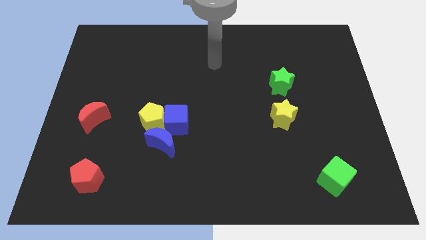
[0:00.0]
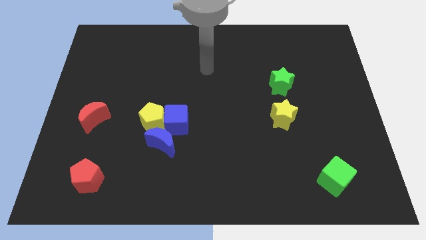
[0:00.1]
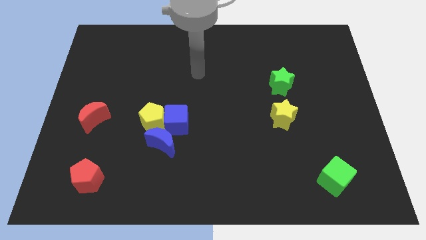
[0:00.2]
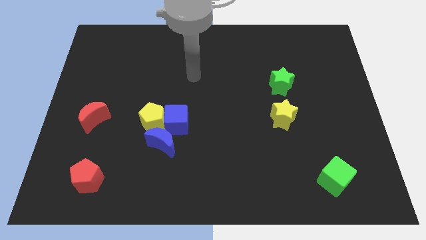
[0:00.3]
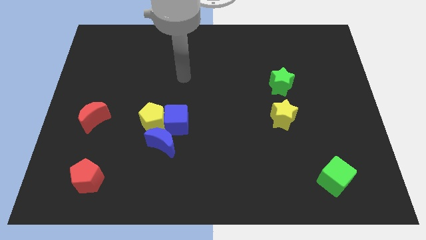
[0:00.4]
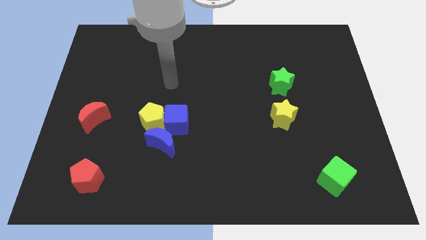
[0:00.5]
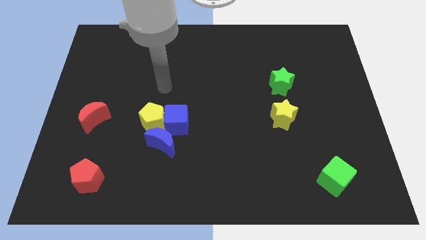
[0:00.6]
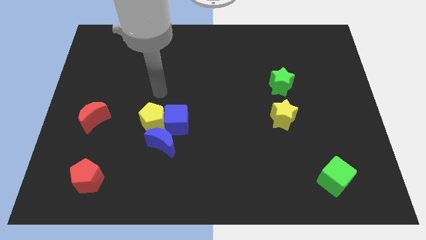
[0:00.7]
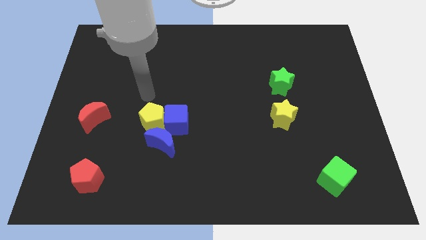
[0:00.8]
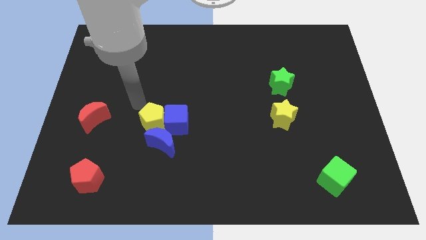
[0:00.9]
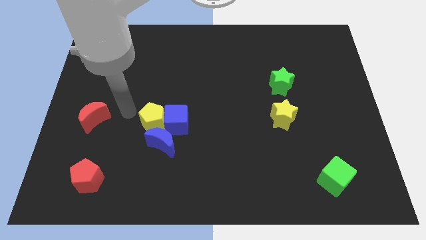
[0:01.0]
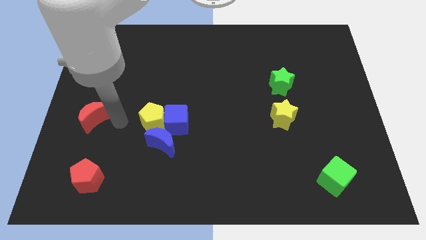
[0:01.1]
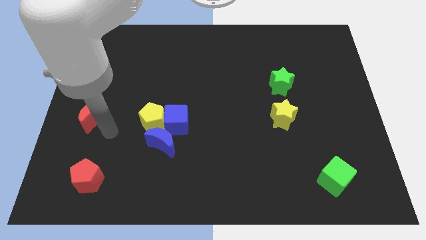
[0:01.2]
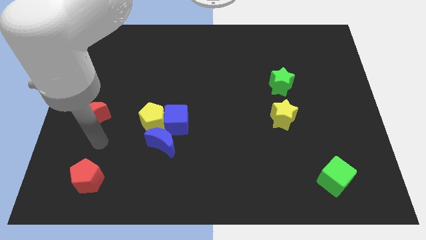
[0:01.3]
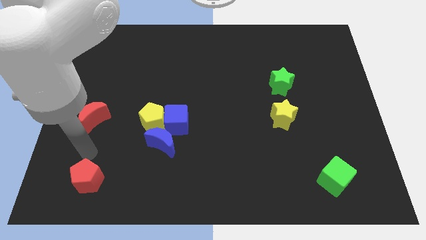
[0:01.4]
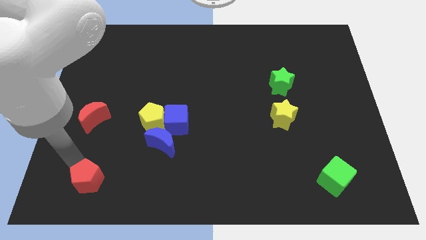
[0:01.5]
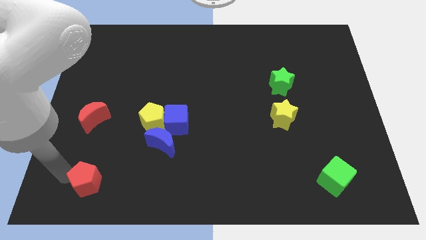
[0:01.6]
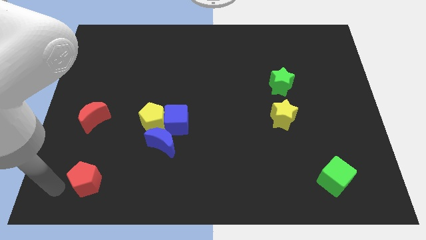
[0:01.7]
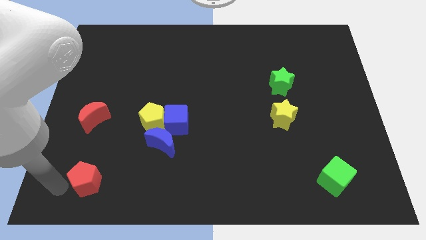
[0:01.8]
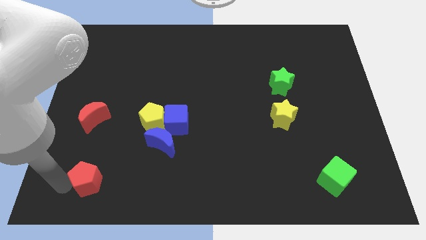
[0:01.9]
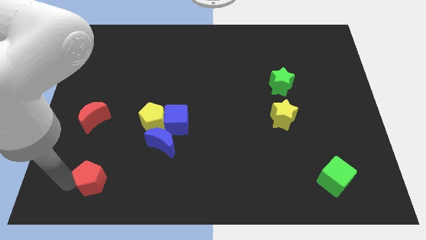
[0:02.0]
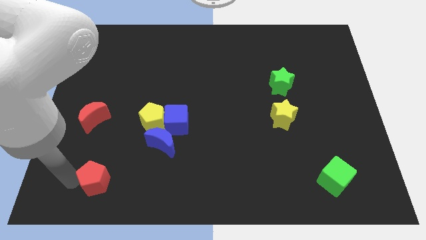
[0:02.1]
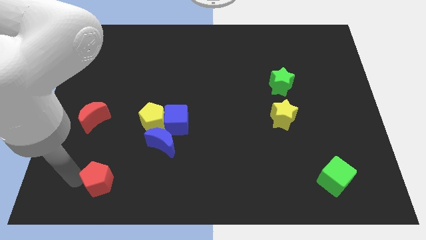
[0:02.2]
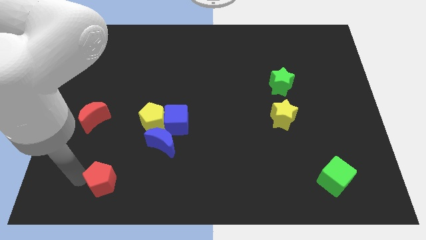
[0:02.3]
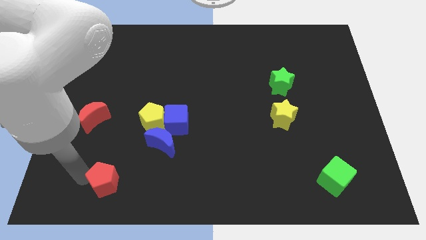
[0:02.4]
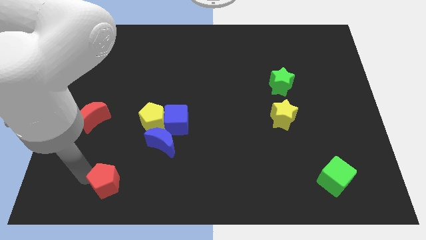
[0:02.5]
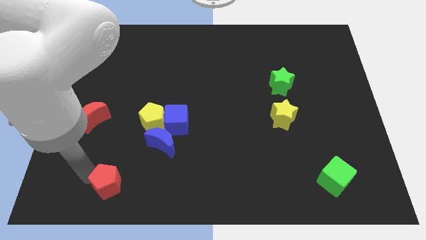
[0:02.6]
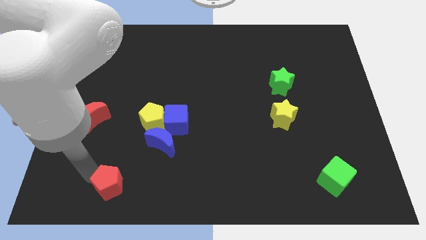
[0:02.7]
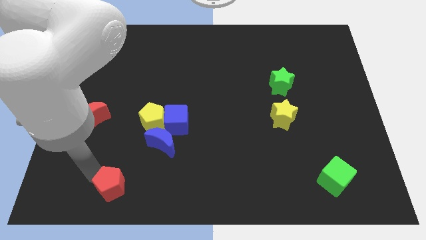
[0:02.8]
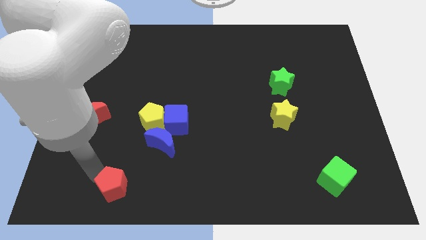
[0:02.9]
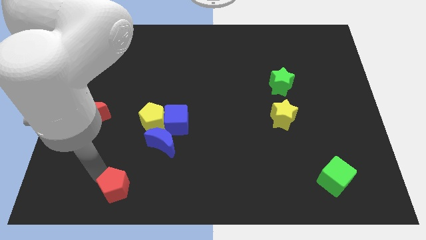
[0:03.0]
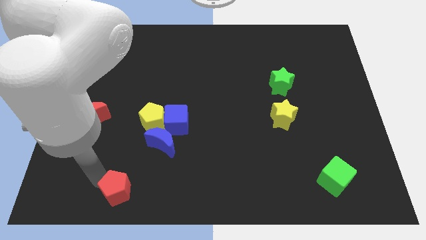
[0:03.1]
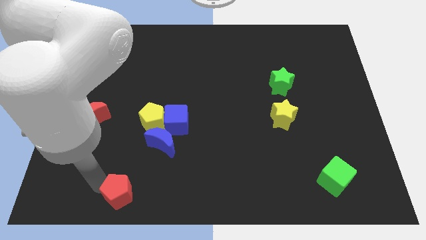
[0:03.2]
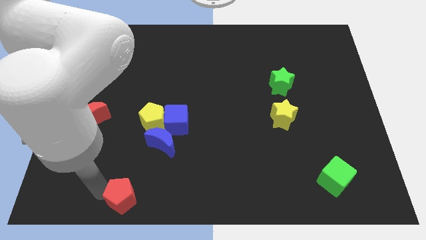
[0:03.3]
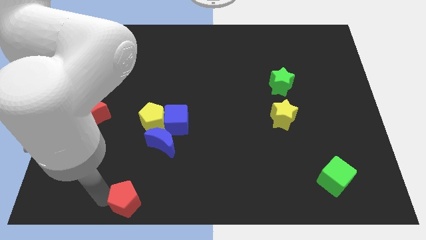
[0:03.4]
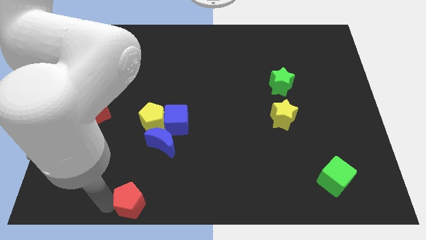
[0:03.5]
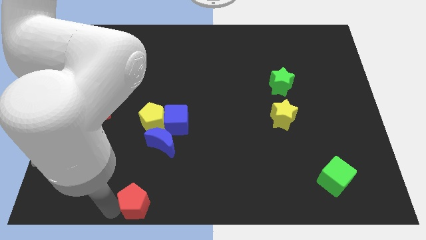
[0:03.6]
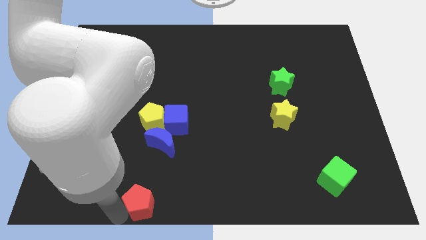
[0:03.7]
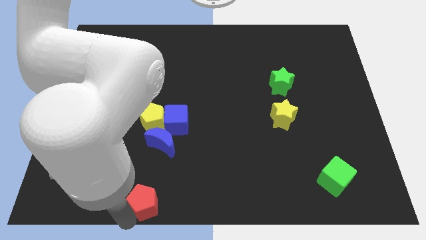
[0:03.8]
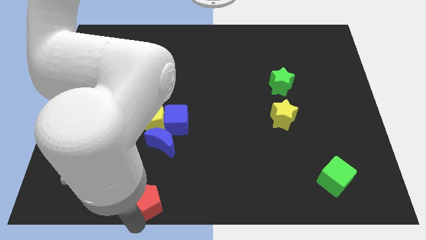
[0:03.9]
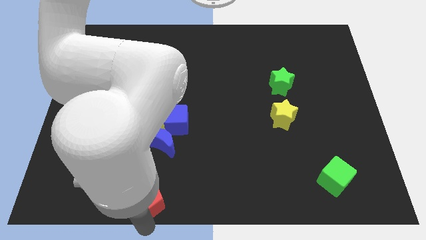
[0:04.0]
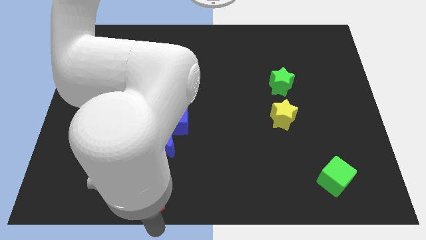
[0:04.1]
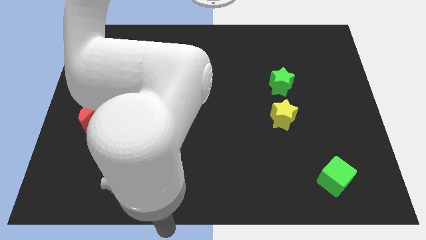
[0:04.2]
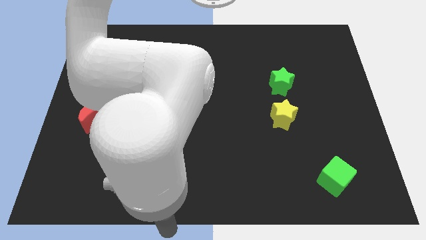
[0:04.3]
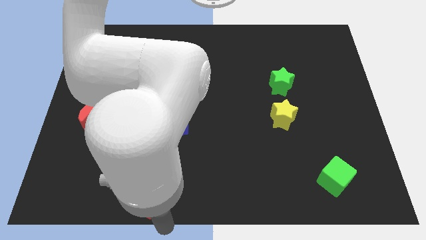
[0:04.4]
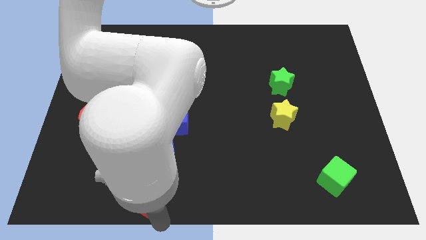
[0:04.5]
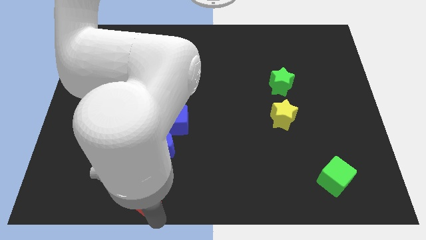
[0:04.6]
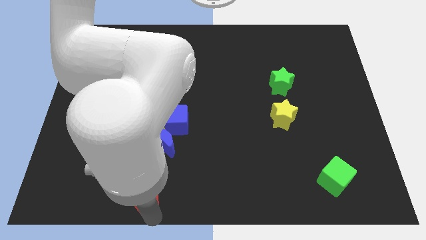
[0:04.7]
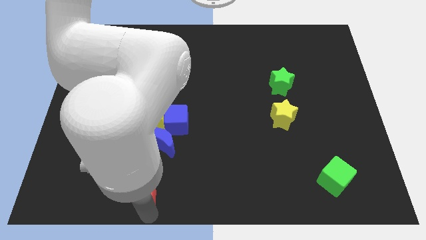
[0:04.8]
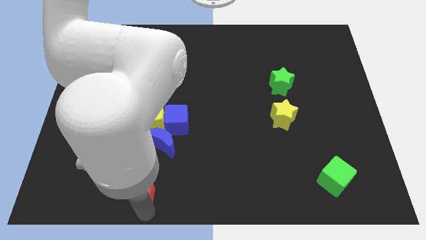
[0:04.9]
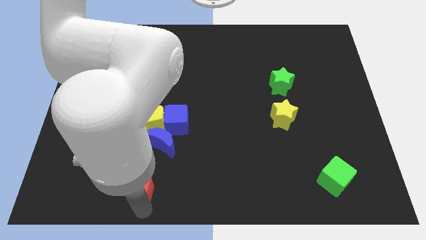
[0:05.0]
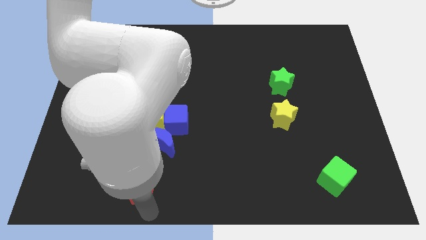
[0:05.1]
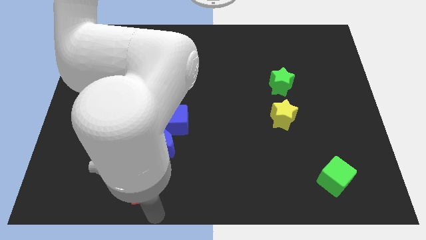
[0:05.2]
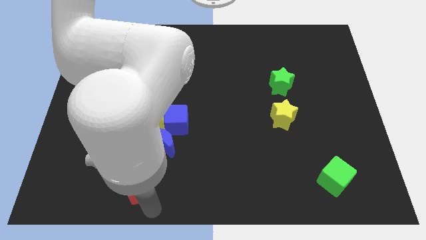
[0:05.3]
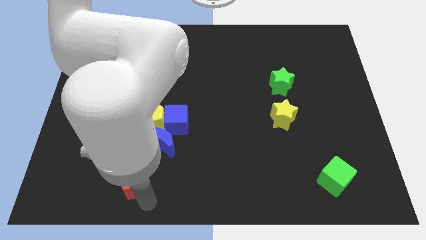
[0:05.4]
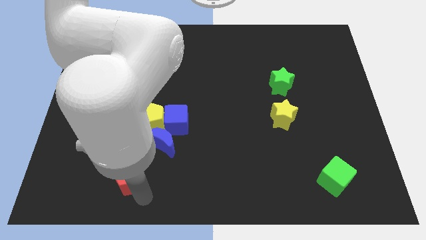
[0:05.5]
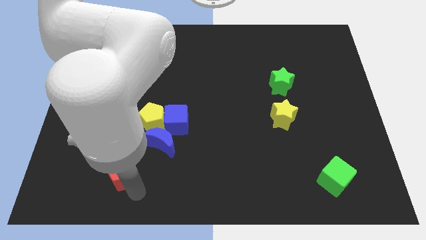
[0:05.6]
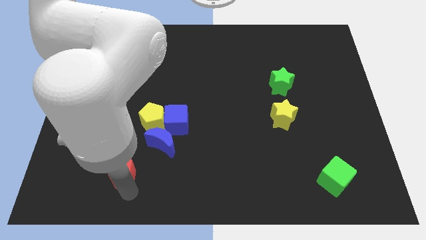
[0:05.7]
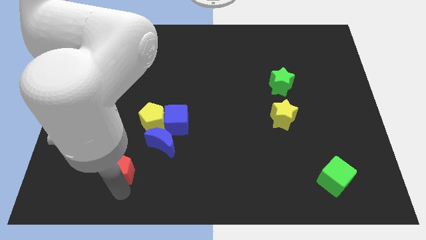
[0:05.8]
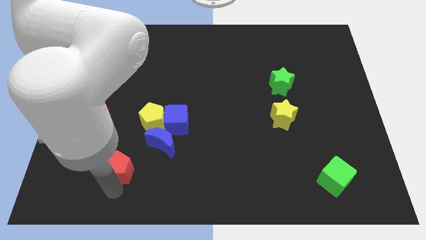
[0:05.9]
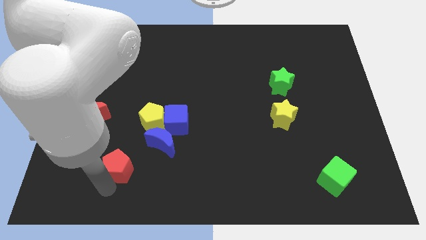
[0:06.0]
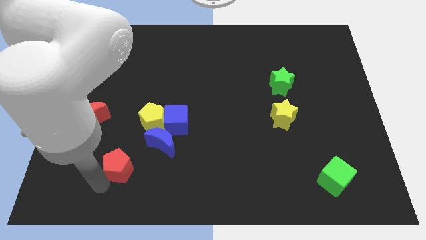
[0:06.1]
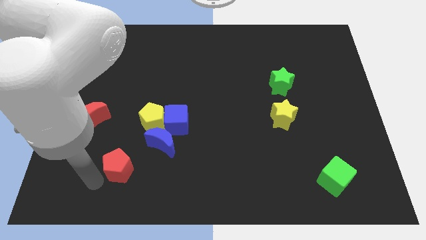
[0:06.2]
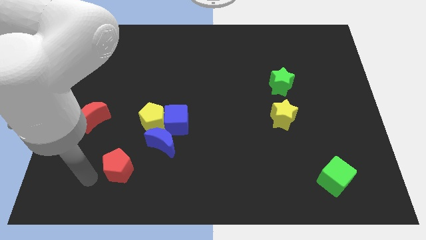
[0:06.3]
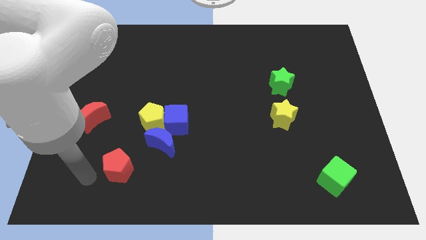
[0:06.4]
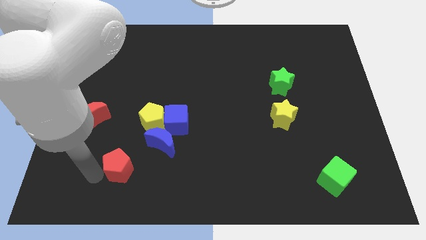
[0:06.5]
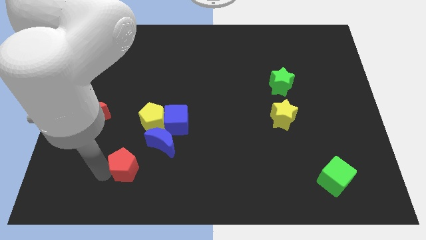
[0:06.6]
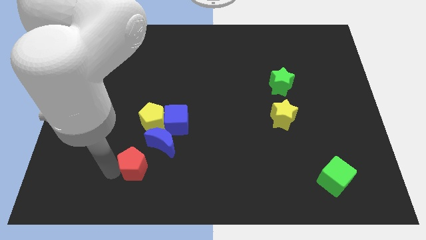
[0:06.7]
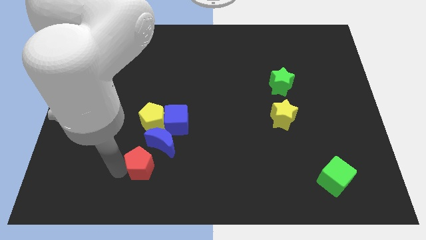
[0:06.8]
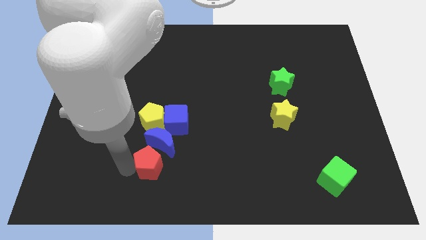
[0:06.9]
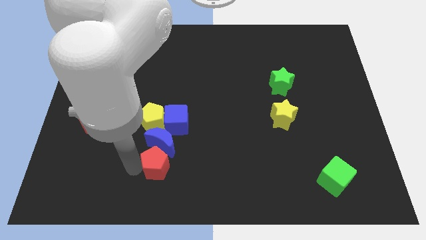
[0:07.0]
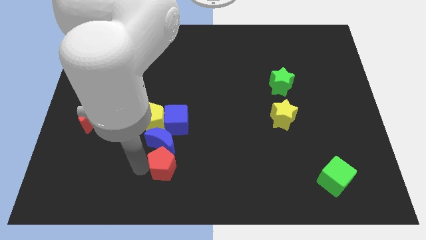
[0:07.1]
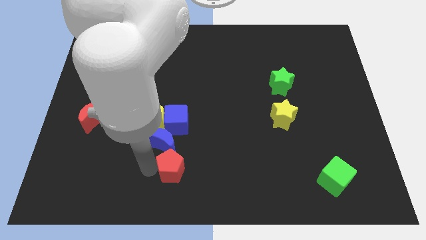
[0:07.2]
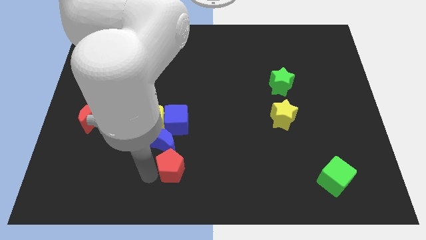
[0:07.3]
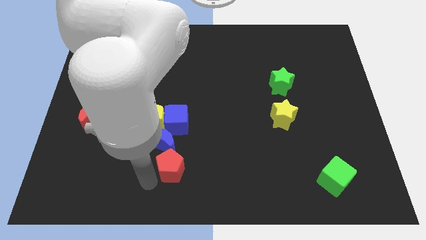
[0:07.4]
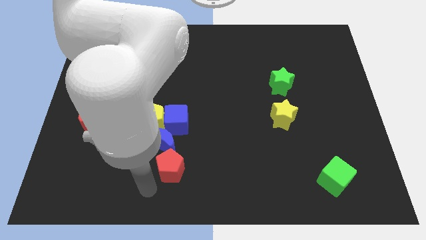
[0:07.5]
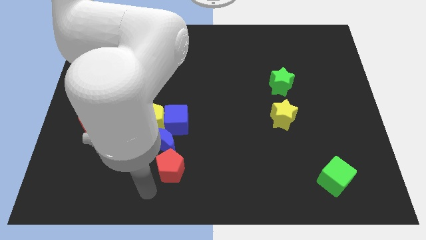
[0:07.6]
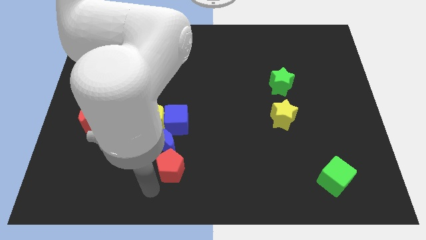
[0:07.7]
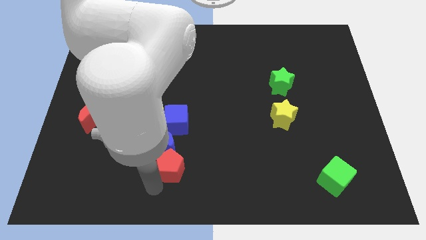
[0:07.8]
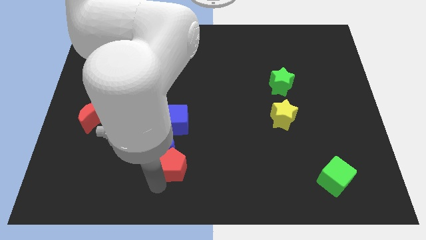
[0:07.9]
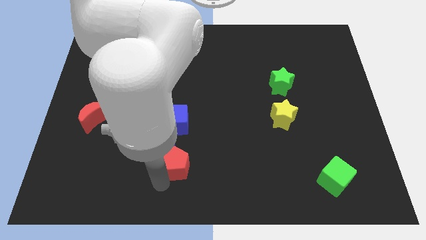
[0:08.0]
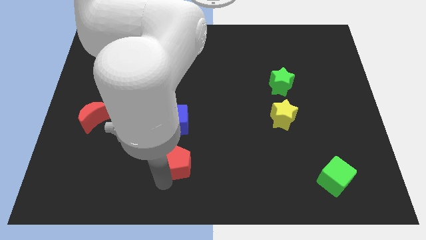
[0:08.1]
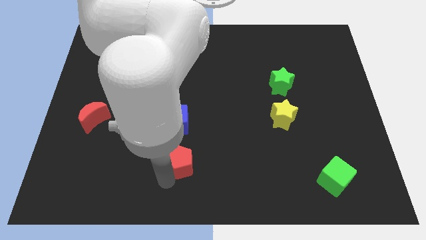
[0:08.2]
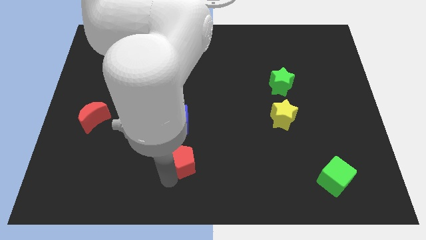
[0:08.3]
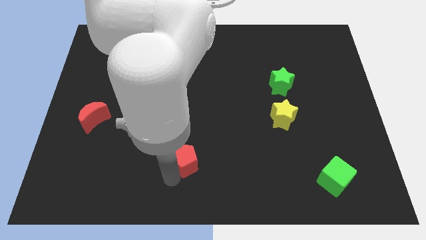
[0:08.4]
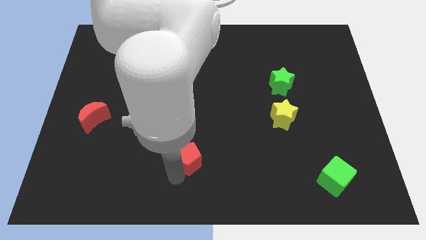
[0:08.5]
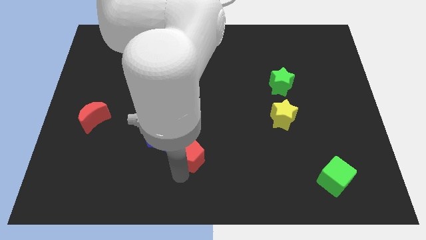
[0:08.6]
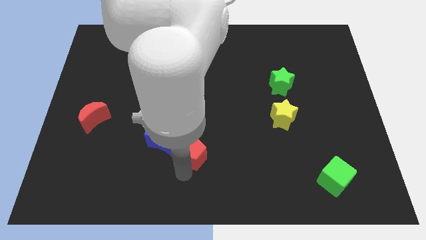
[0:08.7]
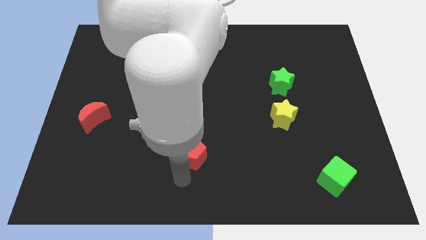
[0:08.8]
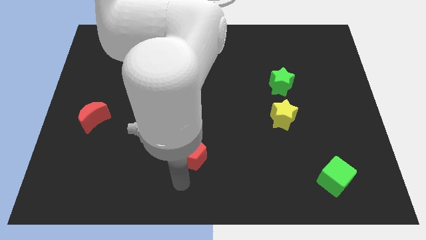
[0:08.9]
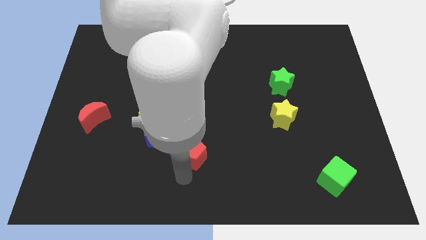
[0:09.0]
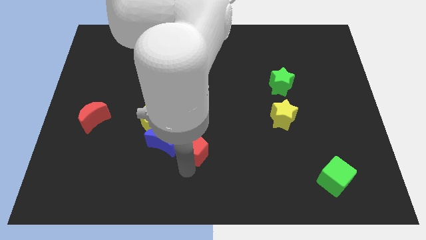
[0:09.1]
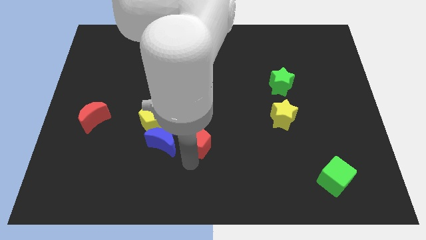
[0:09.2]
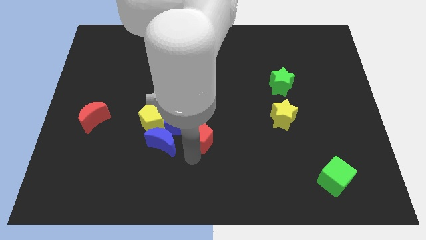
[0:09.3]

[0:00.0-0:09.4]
slide the red pentagon to the middle
